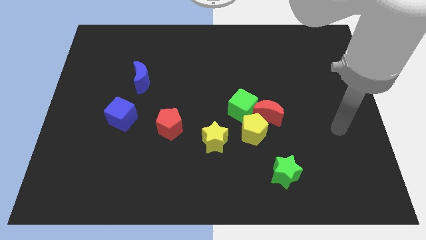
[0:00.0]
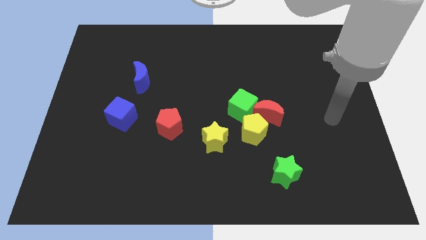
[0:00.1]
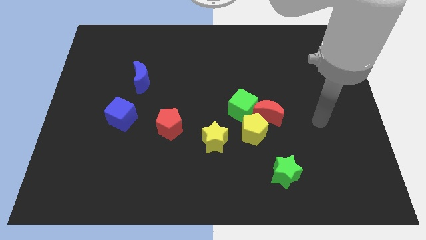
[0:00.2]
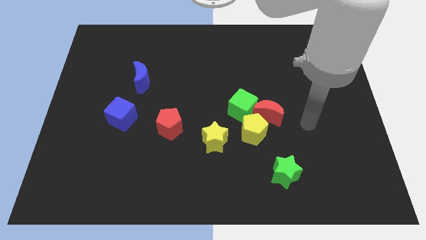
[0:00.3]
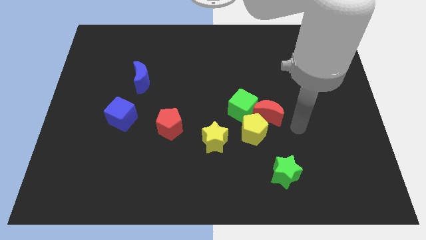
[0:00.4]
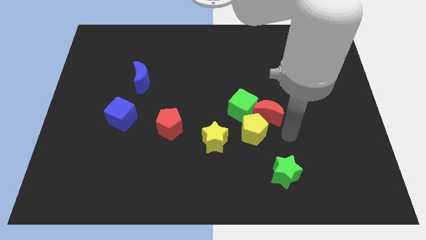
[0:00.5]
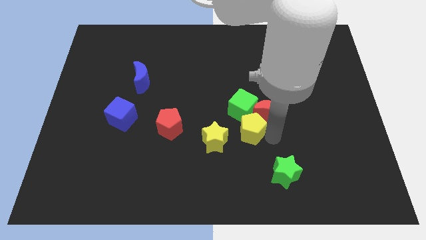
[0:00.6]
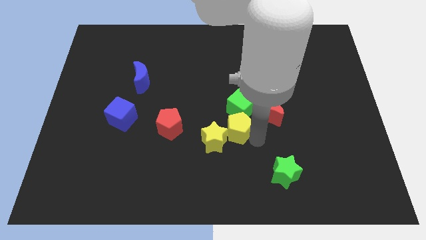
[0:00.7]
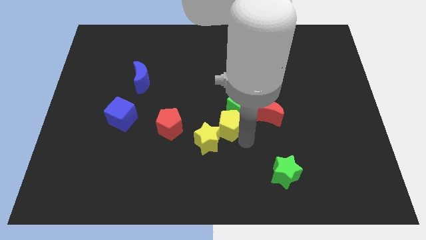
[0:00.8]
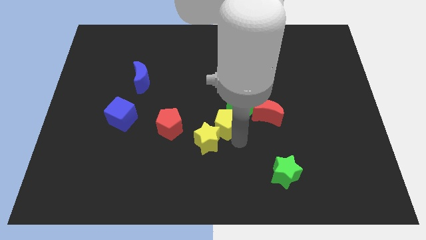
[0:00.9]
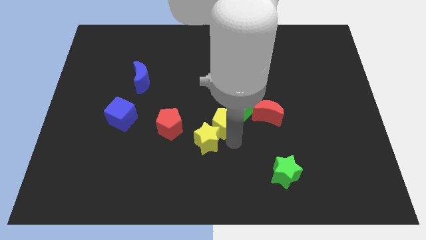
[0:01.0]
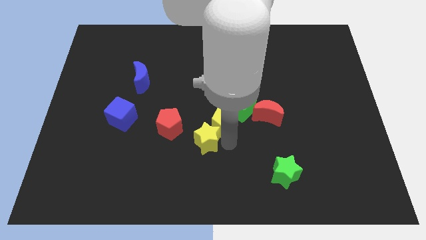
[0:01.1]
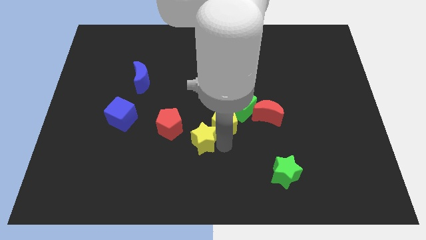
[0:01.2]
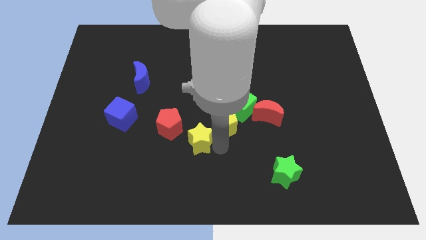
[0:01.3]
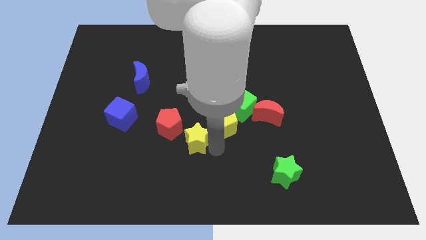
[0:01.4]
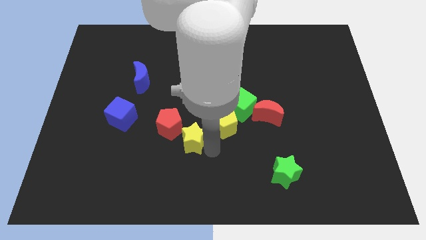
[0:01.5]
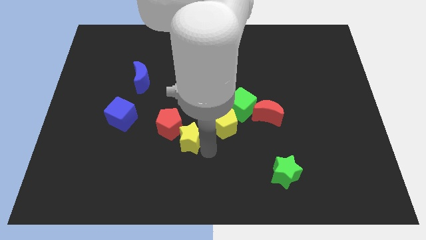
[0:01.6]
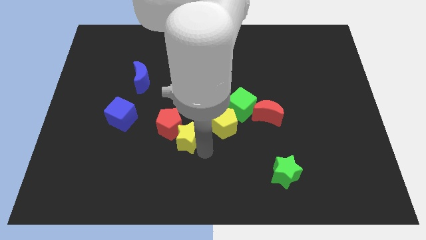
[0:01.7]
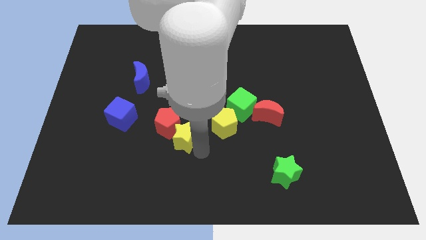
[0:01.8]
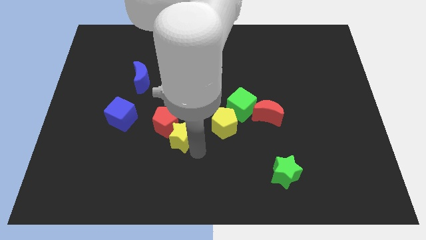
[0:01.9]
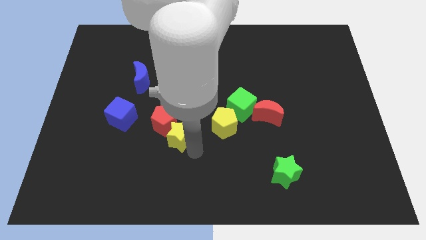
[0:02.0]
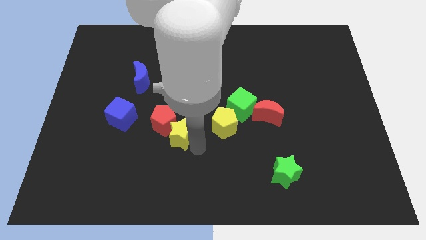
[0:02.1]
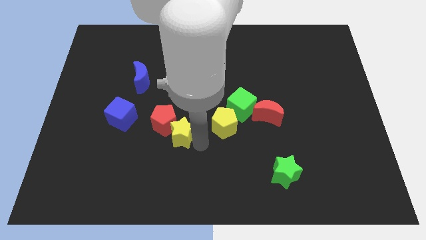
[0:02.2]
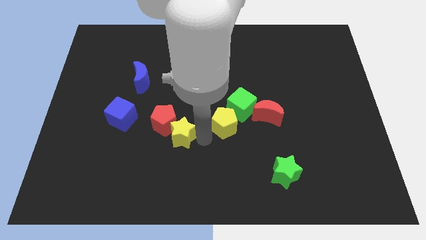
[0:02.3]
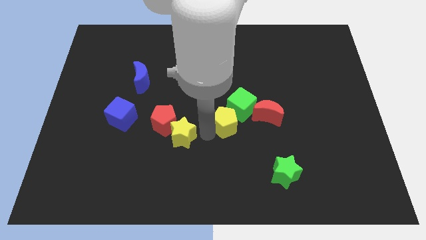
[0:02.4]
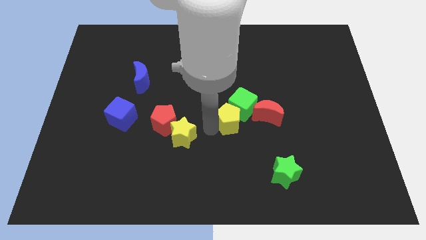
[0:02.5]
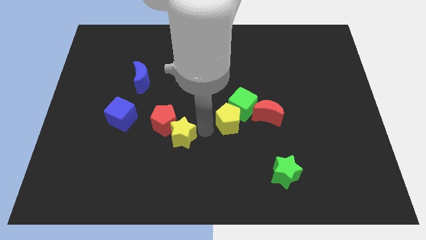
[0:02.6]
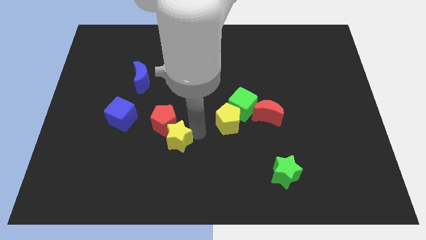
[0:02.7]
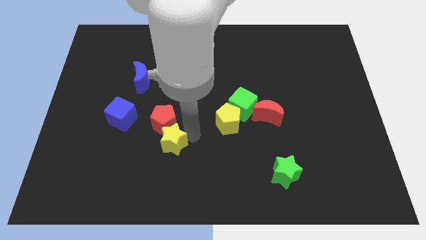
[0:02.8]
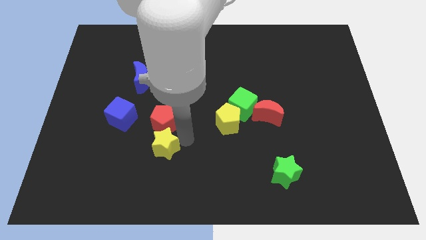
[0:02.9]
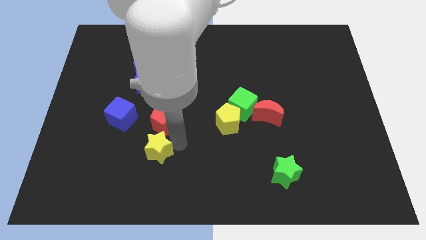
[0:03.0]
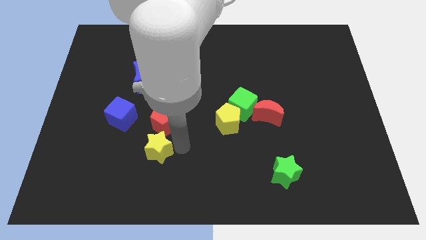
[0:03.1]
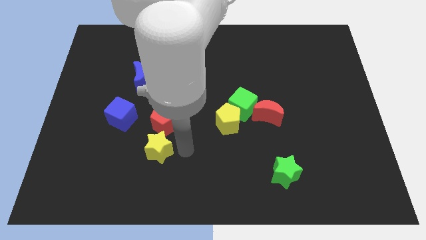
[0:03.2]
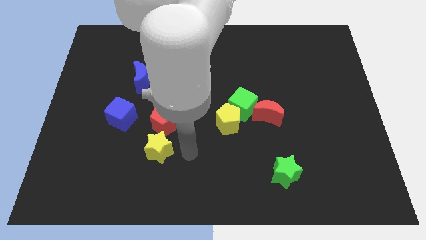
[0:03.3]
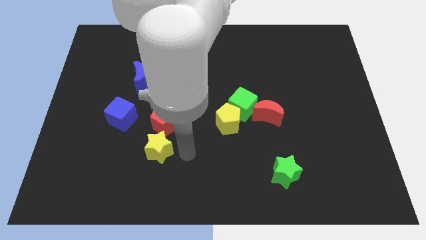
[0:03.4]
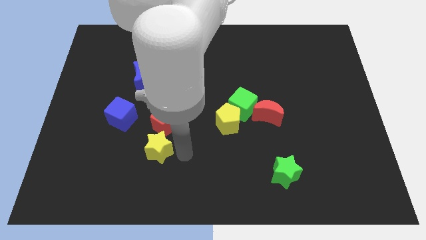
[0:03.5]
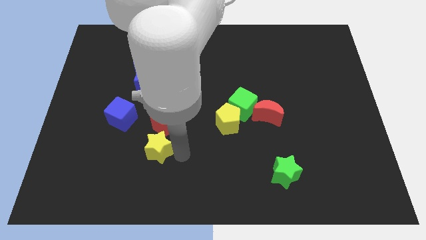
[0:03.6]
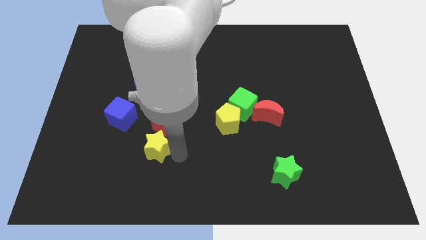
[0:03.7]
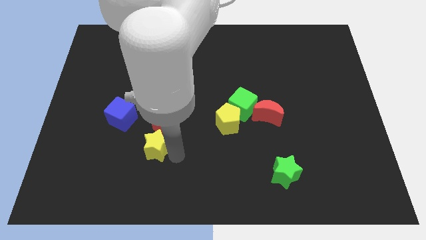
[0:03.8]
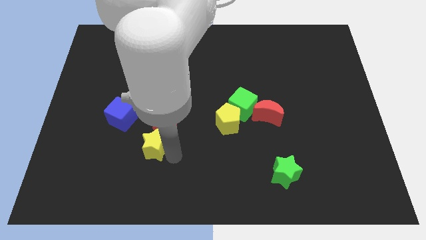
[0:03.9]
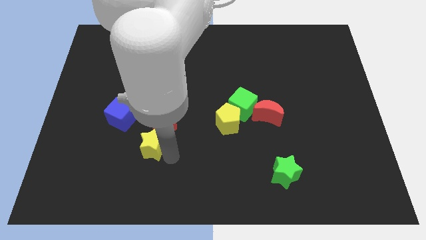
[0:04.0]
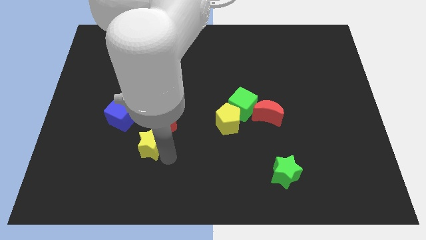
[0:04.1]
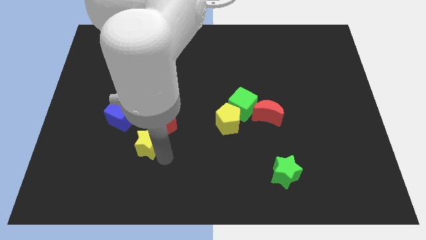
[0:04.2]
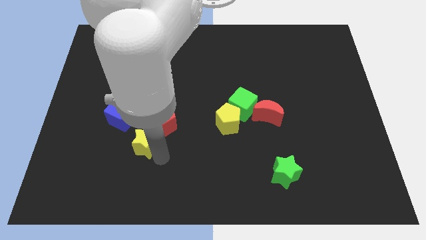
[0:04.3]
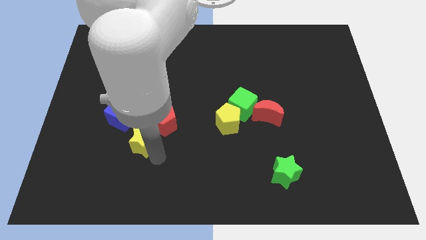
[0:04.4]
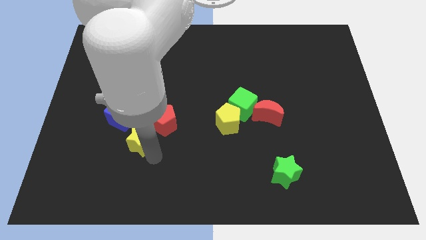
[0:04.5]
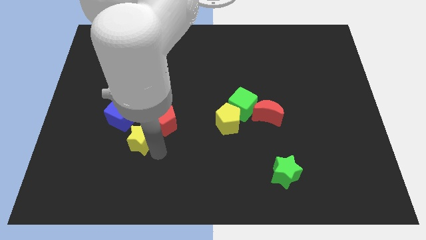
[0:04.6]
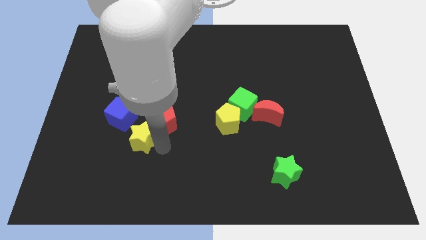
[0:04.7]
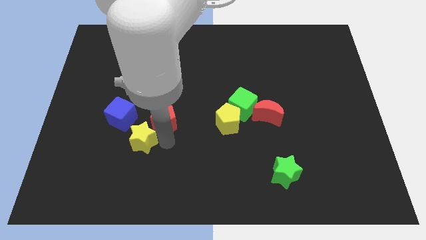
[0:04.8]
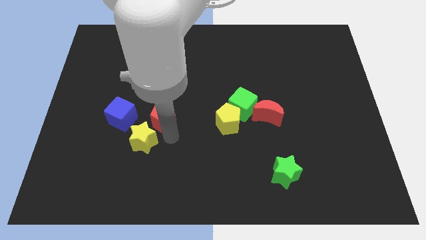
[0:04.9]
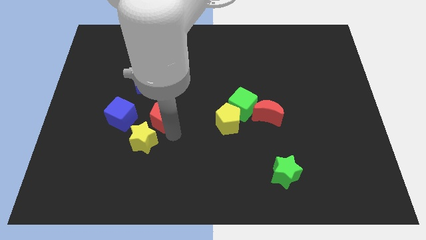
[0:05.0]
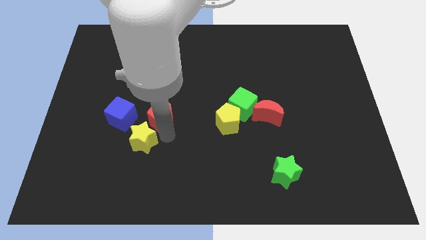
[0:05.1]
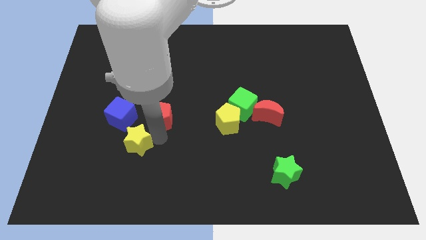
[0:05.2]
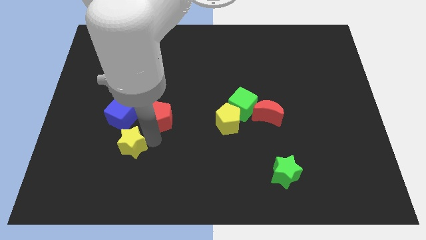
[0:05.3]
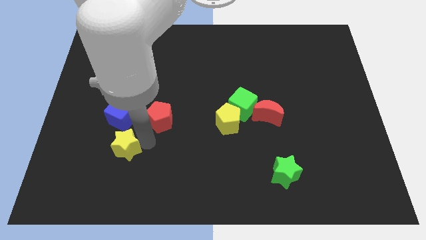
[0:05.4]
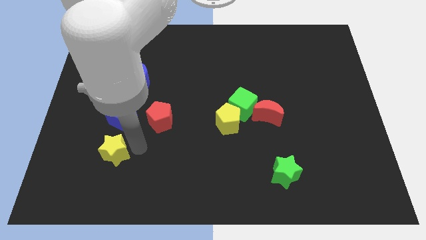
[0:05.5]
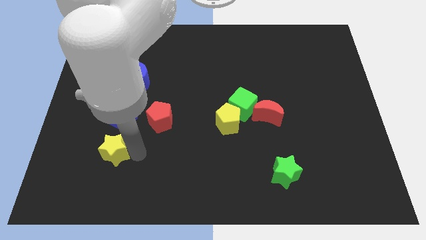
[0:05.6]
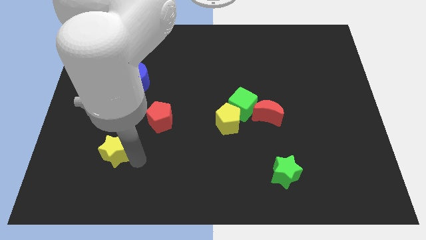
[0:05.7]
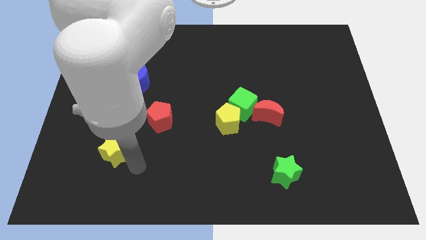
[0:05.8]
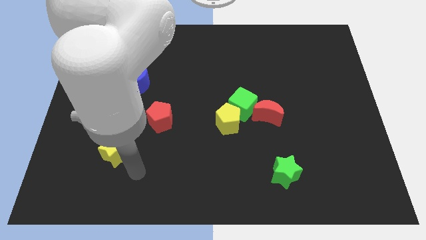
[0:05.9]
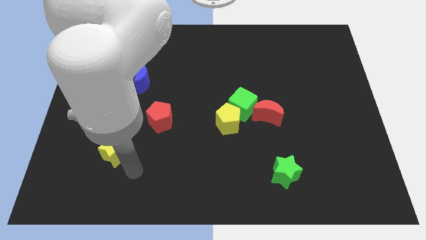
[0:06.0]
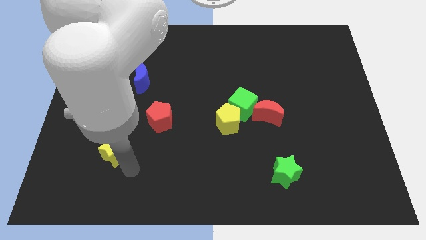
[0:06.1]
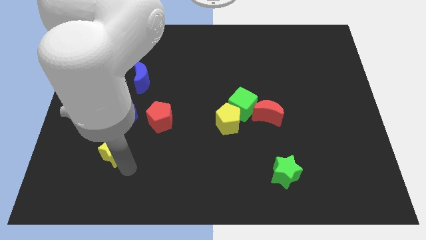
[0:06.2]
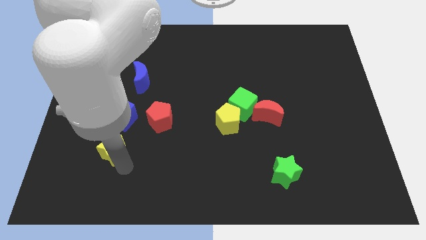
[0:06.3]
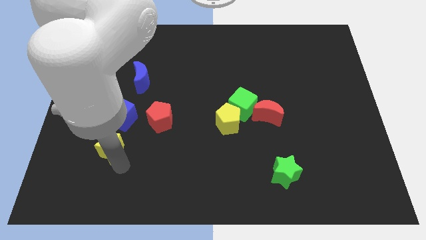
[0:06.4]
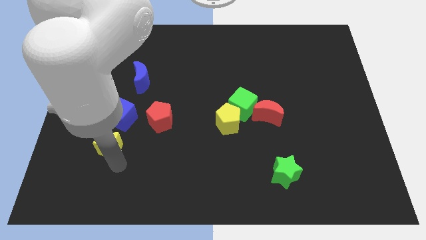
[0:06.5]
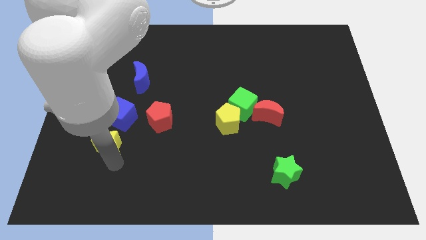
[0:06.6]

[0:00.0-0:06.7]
push the yellow star to the bottom left of the blue cube
